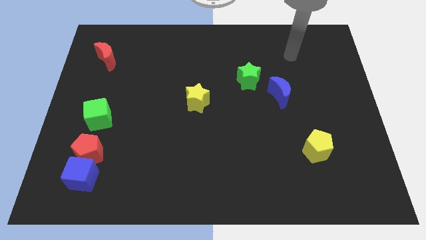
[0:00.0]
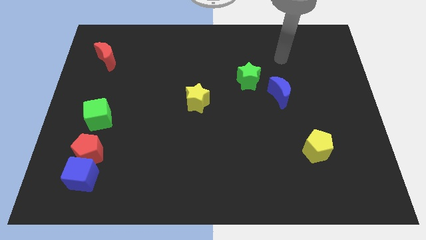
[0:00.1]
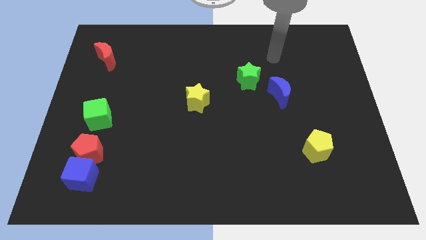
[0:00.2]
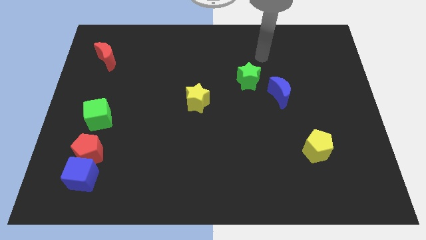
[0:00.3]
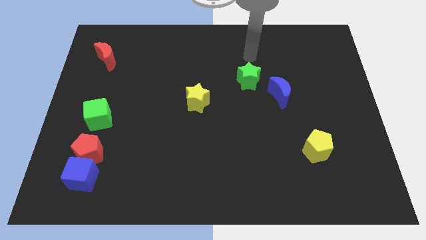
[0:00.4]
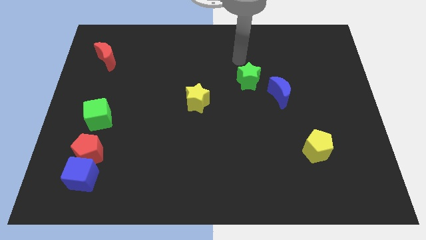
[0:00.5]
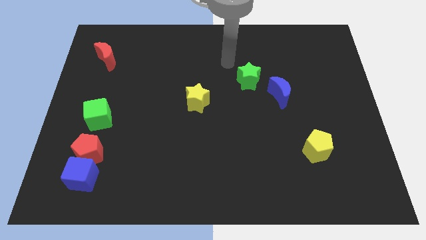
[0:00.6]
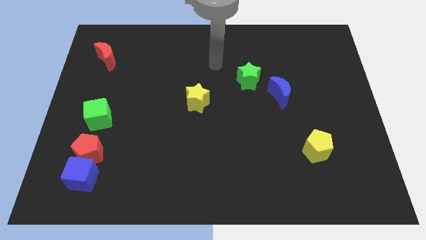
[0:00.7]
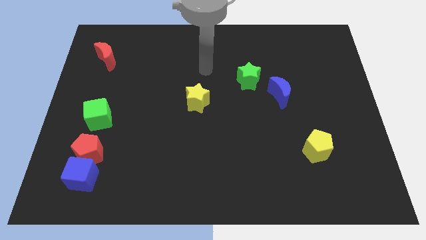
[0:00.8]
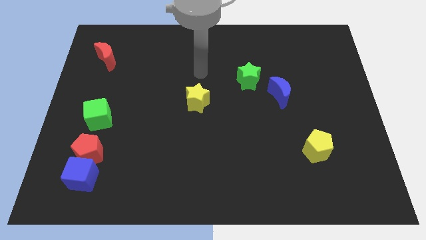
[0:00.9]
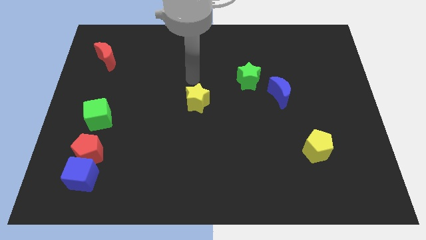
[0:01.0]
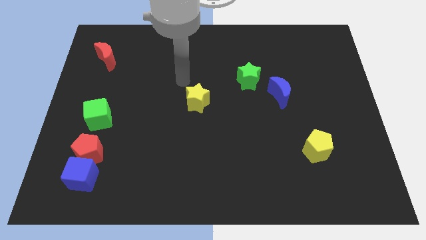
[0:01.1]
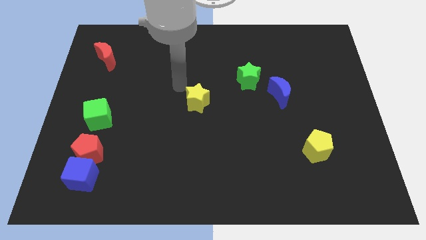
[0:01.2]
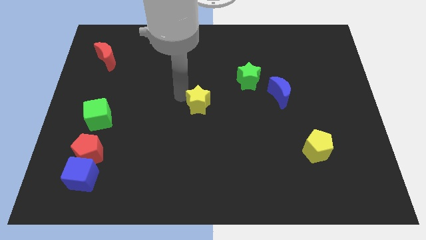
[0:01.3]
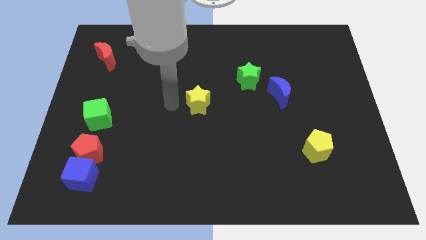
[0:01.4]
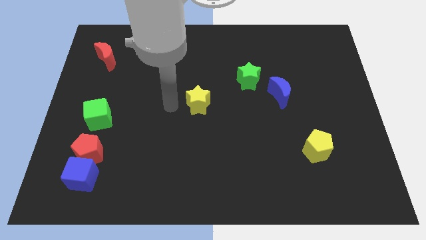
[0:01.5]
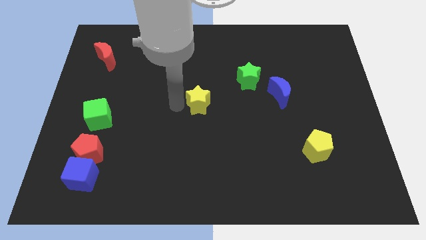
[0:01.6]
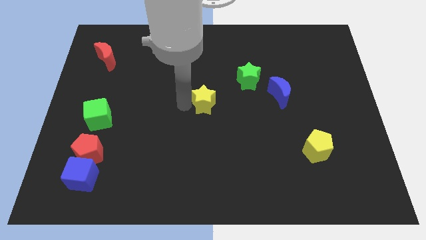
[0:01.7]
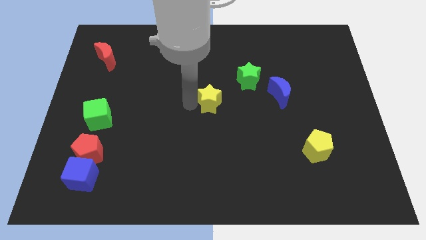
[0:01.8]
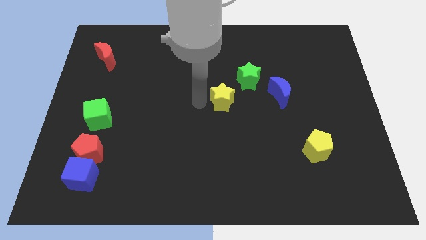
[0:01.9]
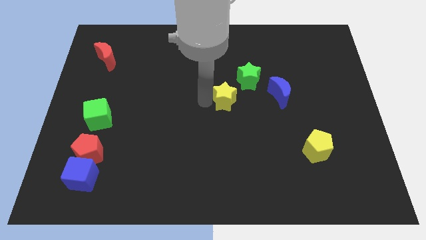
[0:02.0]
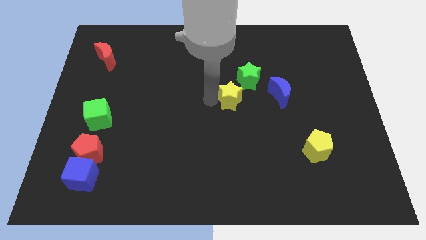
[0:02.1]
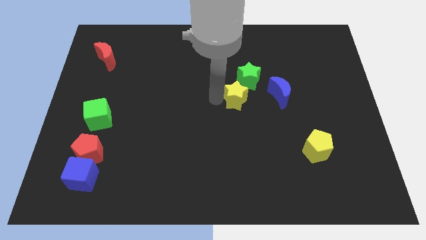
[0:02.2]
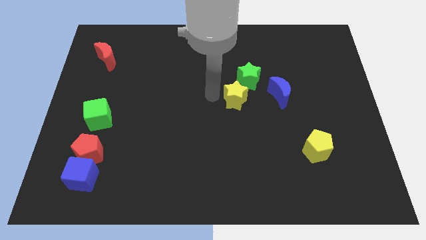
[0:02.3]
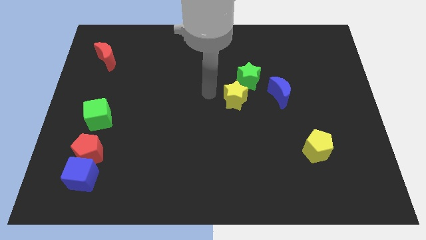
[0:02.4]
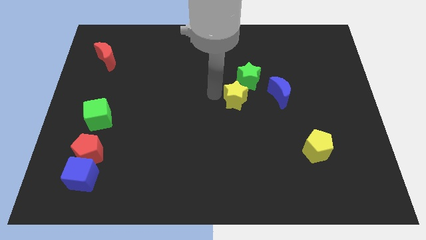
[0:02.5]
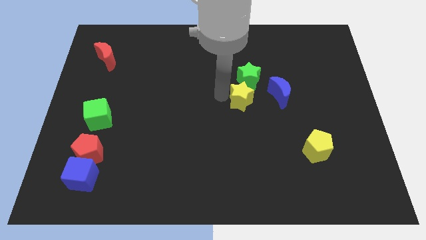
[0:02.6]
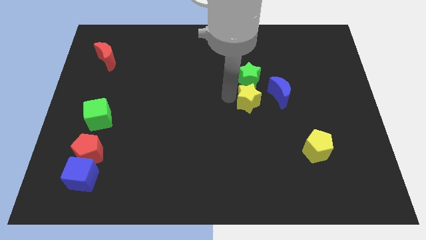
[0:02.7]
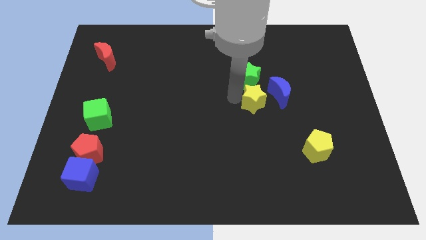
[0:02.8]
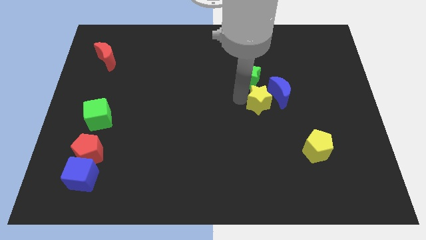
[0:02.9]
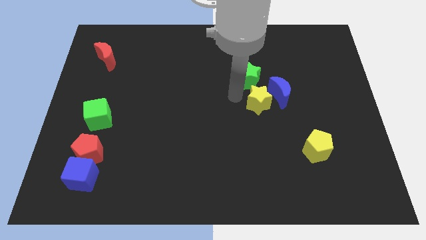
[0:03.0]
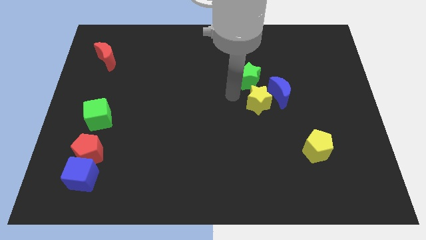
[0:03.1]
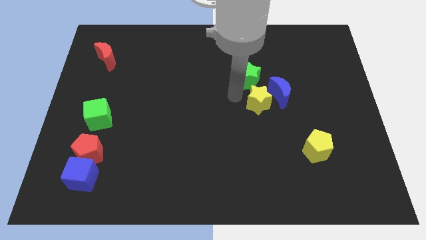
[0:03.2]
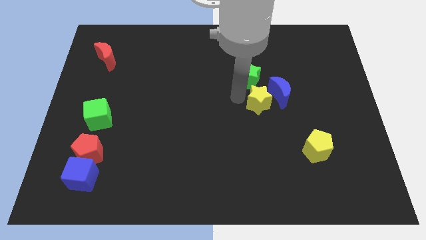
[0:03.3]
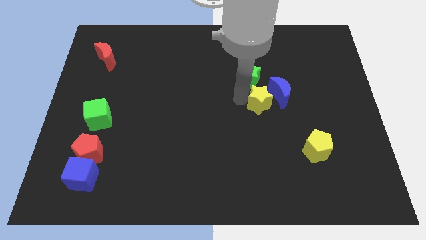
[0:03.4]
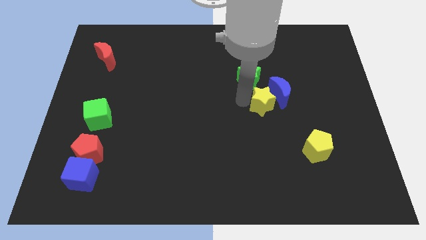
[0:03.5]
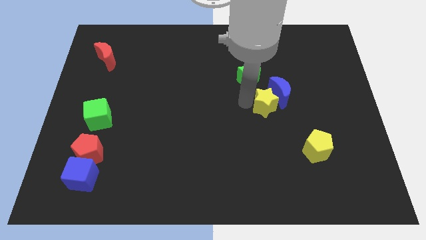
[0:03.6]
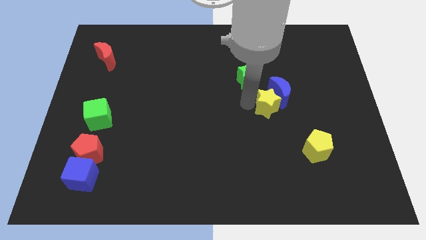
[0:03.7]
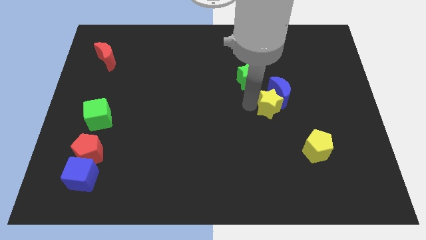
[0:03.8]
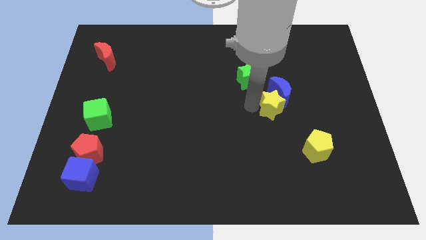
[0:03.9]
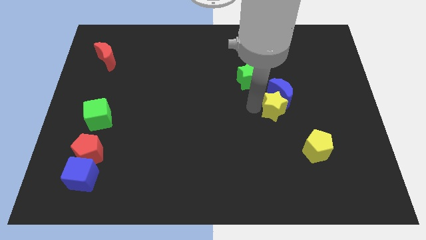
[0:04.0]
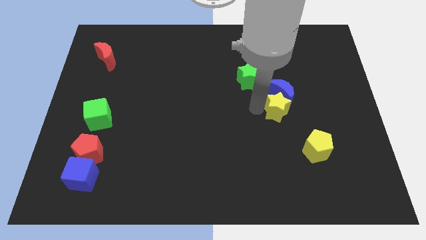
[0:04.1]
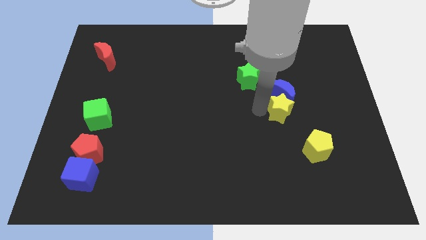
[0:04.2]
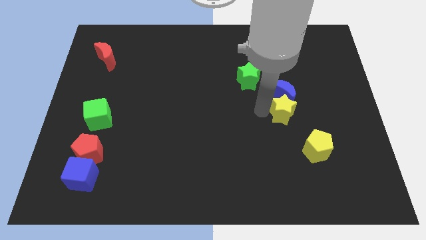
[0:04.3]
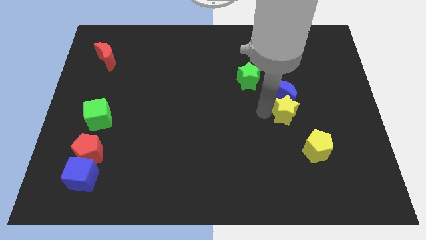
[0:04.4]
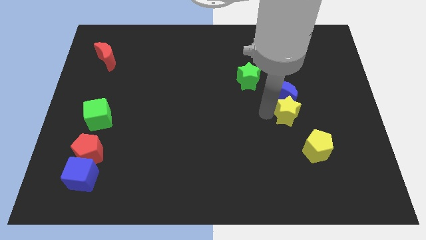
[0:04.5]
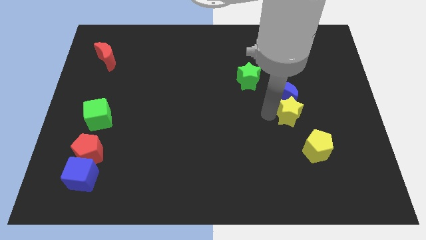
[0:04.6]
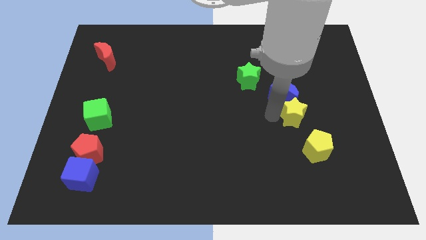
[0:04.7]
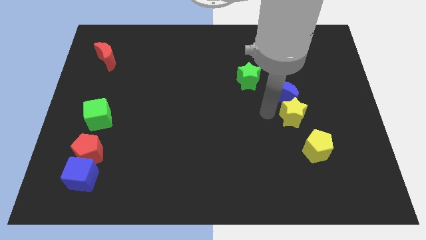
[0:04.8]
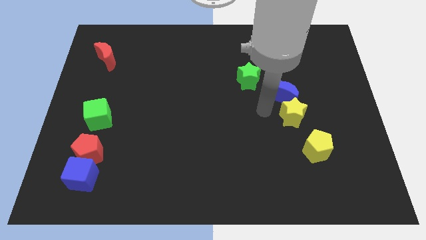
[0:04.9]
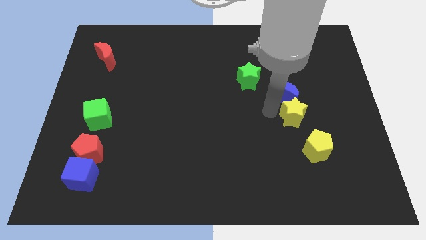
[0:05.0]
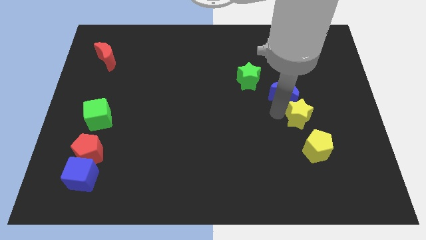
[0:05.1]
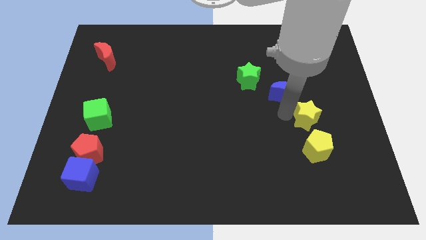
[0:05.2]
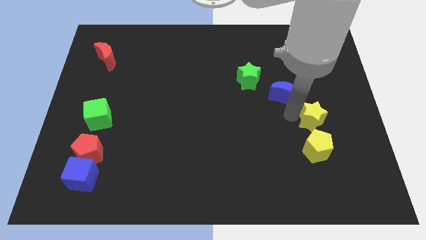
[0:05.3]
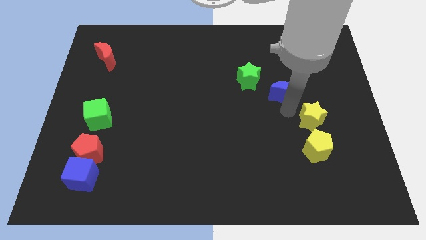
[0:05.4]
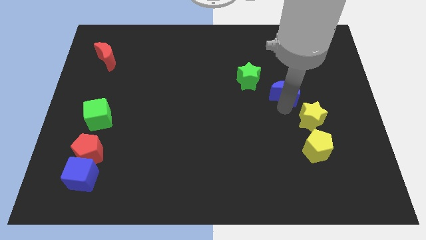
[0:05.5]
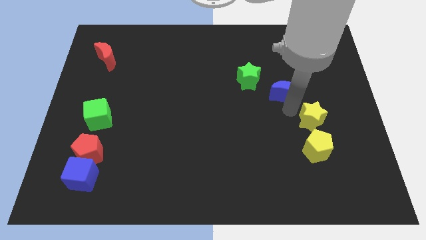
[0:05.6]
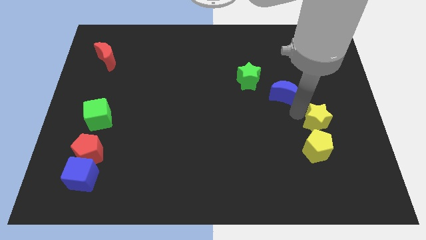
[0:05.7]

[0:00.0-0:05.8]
put the yellow star to the top right of the yellow pentagon
